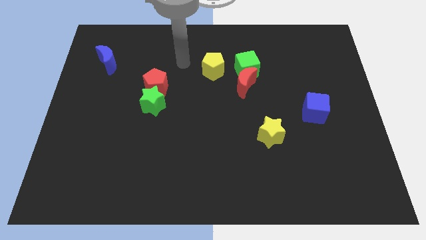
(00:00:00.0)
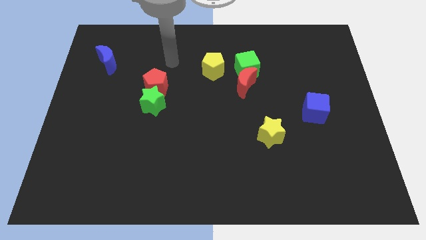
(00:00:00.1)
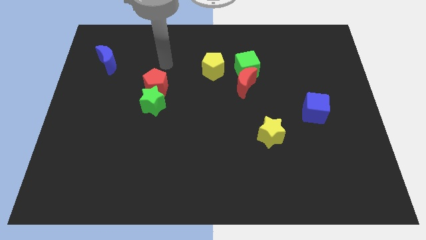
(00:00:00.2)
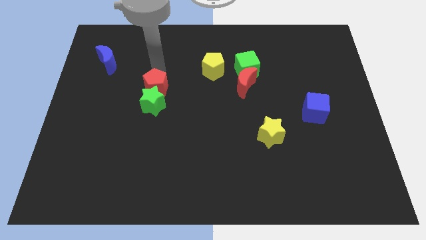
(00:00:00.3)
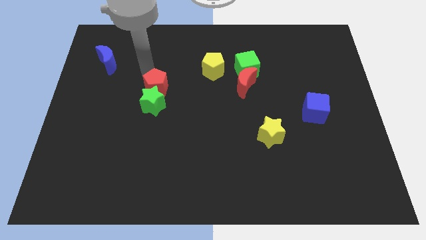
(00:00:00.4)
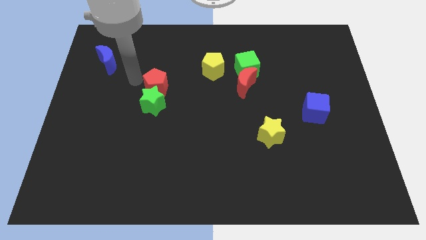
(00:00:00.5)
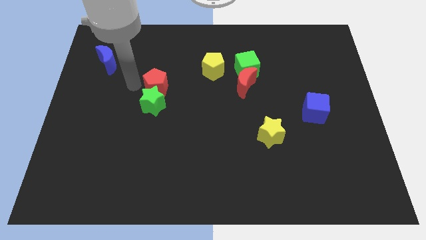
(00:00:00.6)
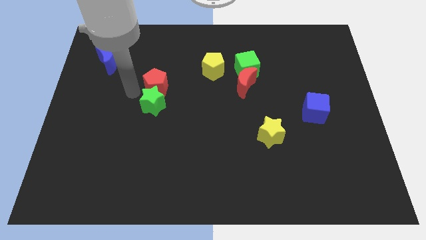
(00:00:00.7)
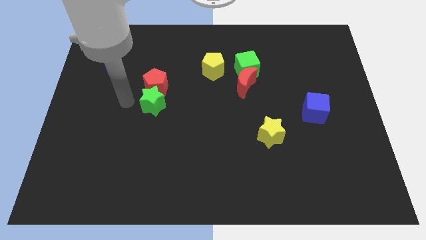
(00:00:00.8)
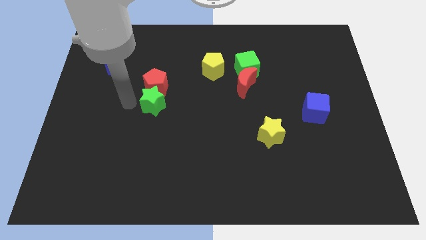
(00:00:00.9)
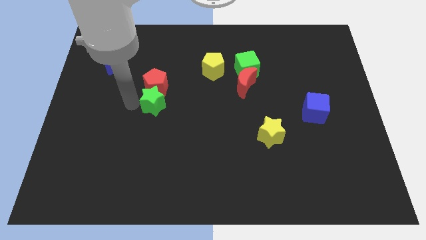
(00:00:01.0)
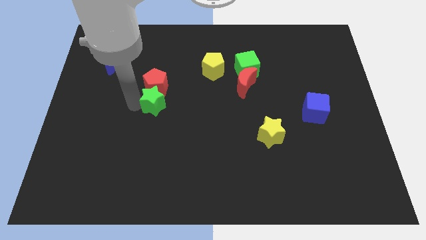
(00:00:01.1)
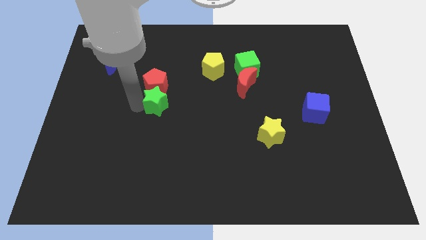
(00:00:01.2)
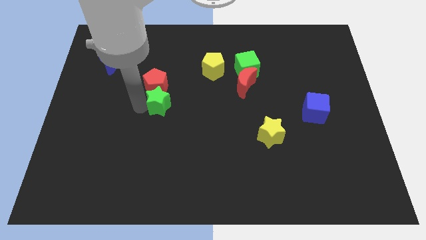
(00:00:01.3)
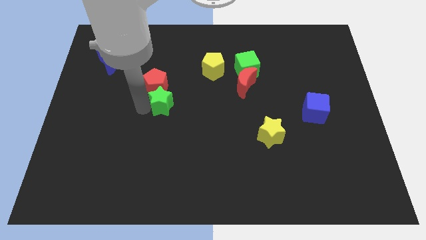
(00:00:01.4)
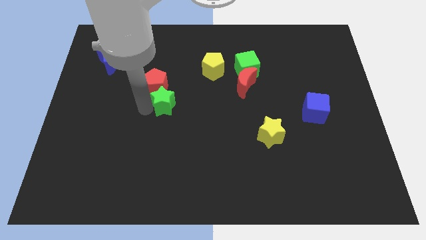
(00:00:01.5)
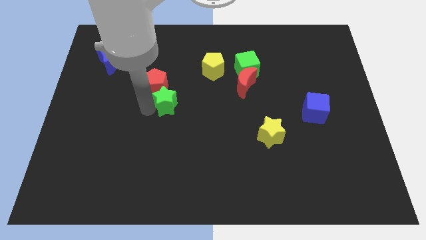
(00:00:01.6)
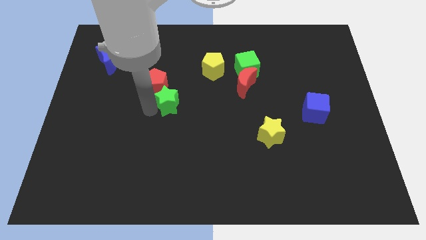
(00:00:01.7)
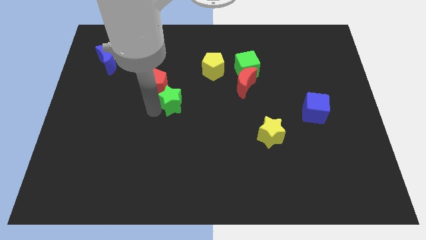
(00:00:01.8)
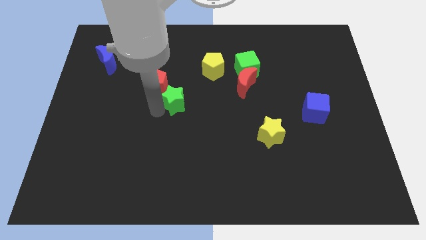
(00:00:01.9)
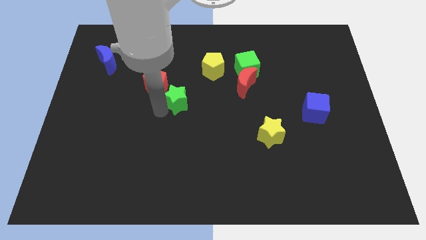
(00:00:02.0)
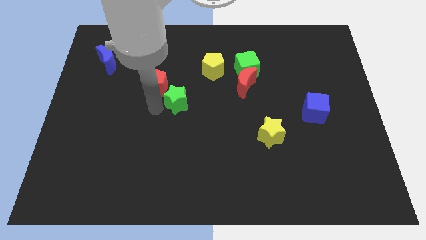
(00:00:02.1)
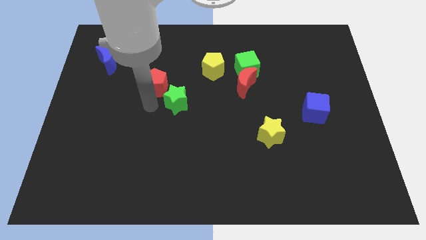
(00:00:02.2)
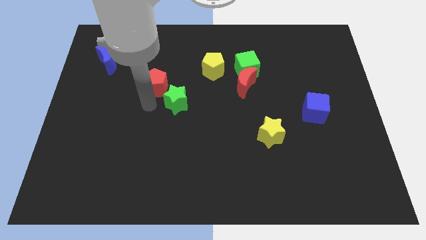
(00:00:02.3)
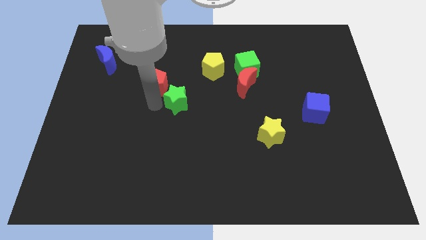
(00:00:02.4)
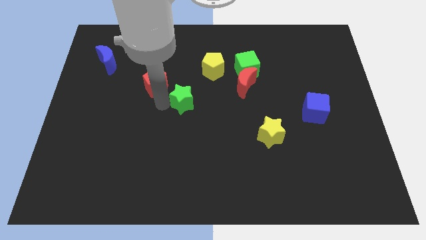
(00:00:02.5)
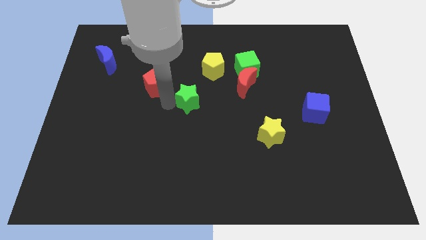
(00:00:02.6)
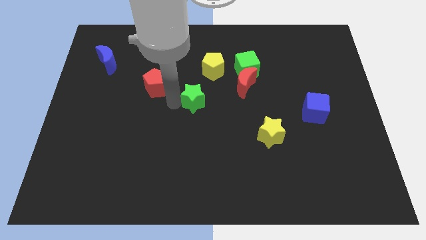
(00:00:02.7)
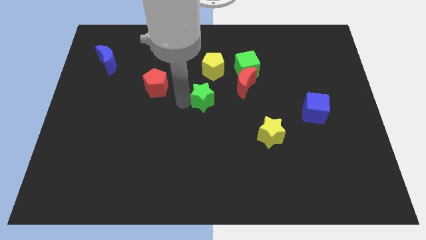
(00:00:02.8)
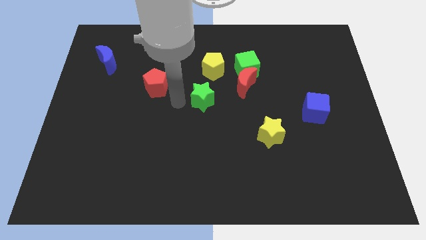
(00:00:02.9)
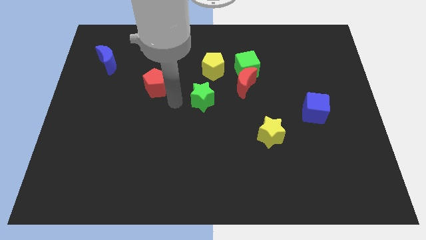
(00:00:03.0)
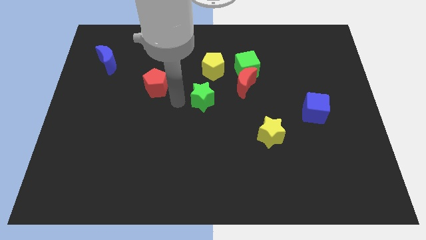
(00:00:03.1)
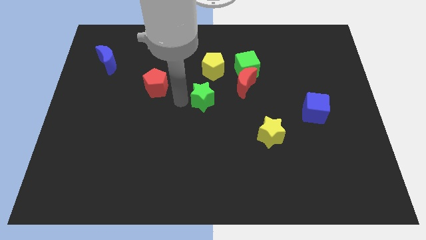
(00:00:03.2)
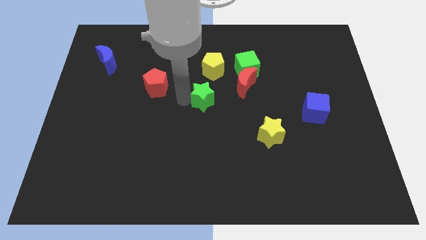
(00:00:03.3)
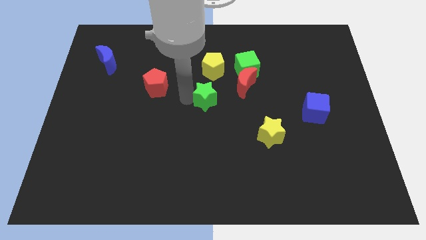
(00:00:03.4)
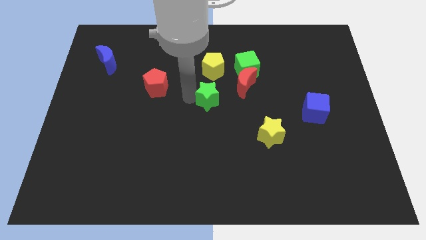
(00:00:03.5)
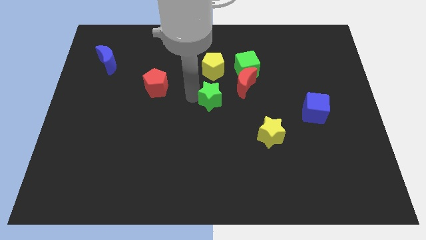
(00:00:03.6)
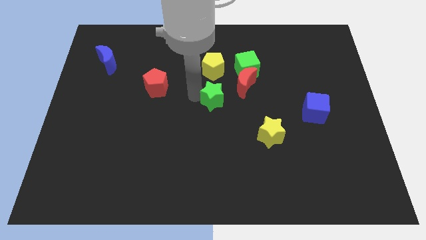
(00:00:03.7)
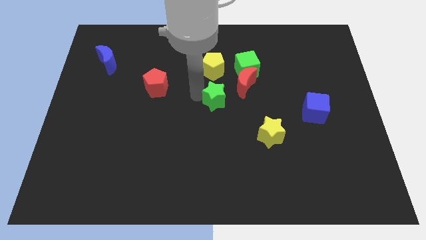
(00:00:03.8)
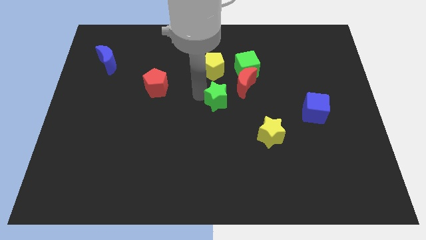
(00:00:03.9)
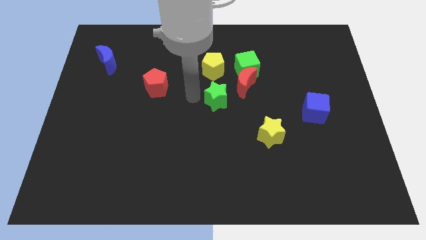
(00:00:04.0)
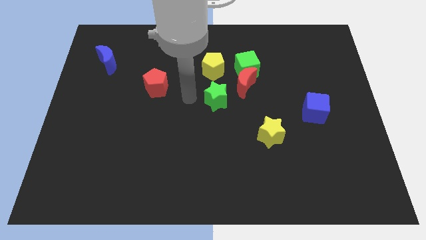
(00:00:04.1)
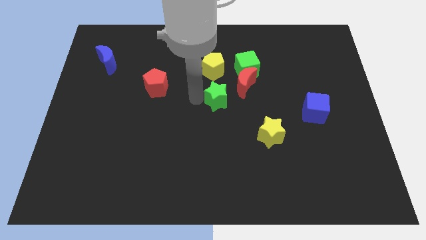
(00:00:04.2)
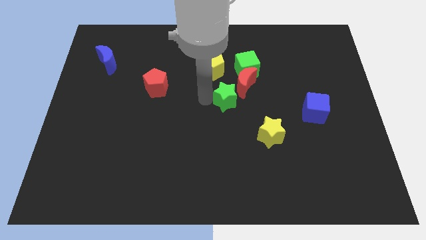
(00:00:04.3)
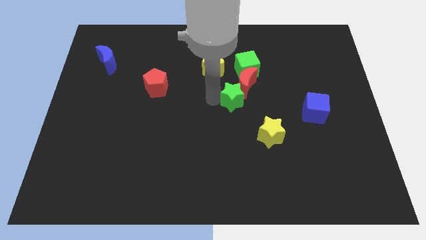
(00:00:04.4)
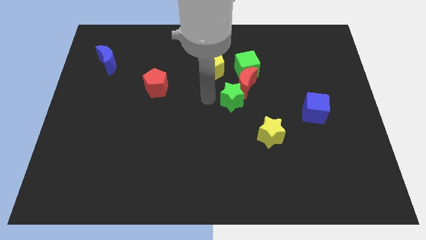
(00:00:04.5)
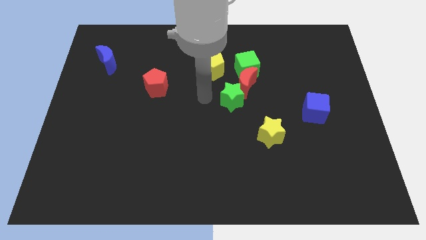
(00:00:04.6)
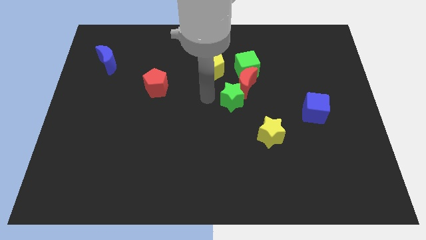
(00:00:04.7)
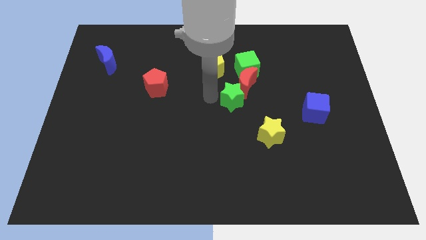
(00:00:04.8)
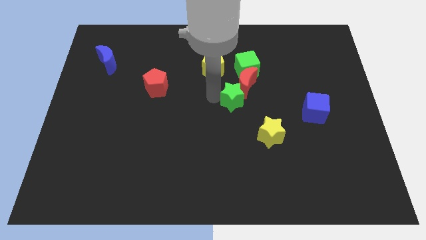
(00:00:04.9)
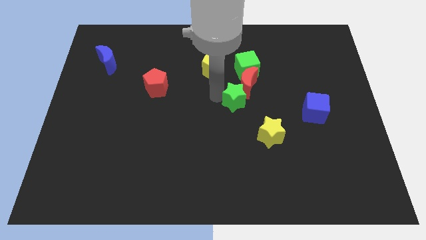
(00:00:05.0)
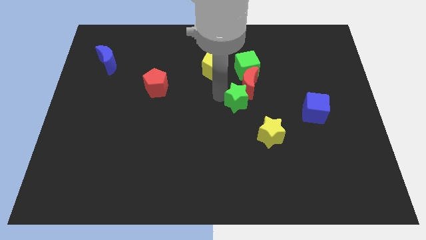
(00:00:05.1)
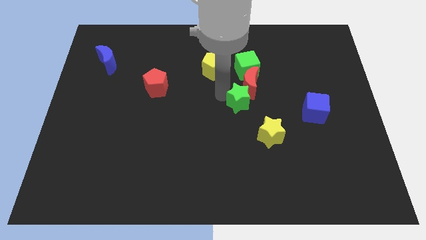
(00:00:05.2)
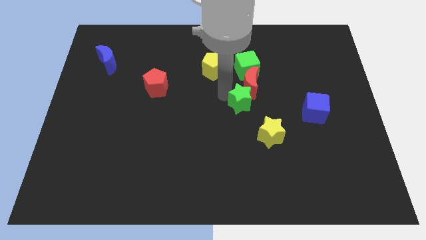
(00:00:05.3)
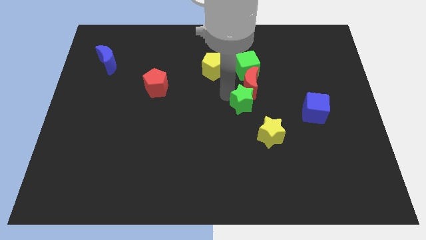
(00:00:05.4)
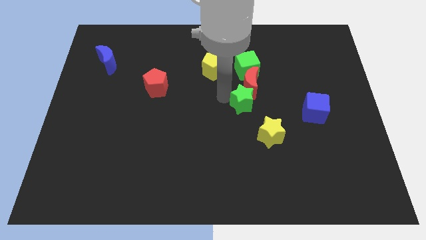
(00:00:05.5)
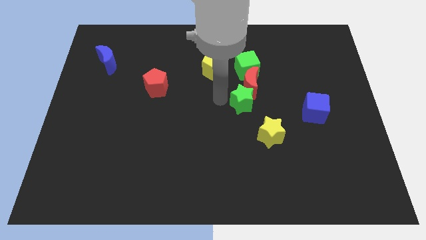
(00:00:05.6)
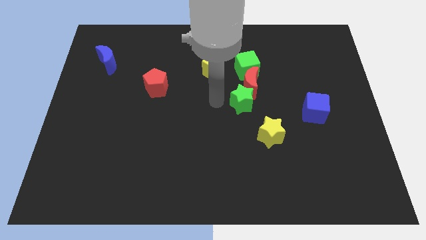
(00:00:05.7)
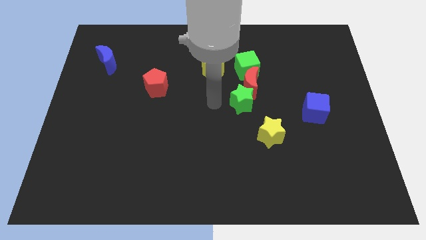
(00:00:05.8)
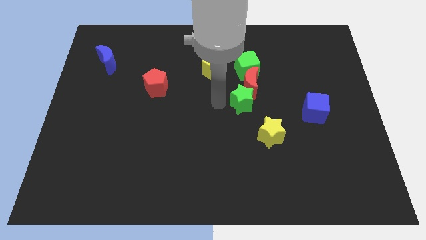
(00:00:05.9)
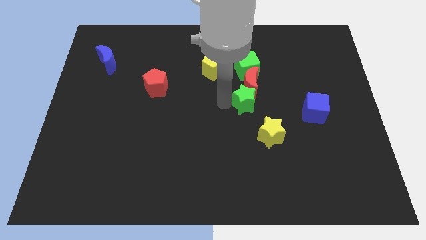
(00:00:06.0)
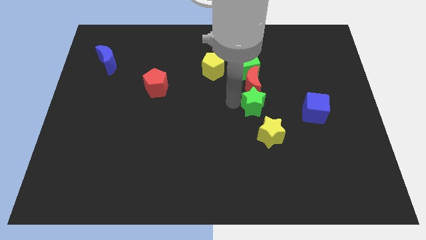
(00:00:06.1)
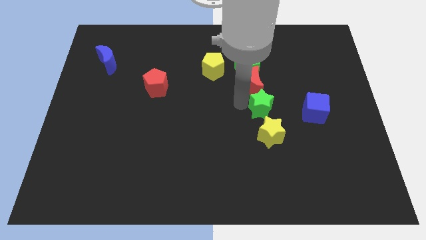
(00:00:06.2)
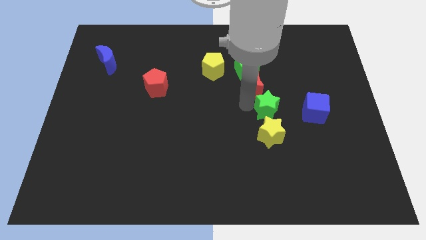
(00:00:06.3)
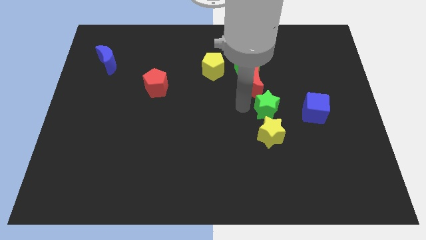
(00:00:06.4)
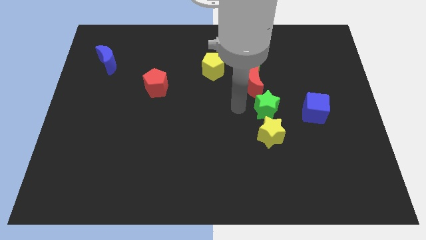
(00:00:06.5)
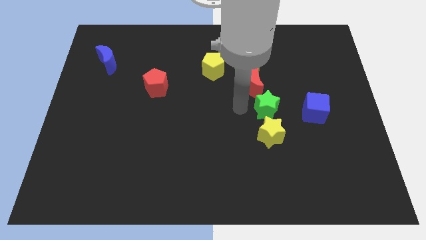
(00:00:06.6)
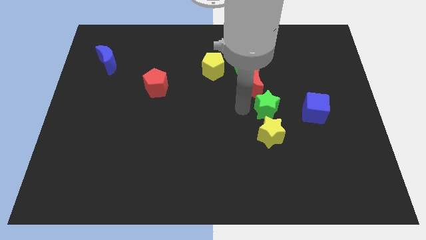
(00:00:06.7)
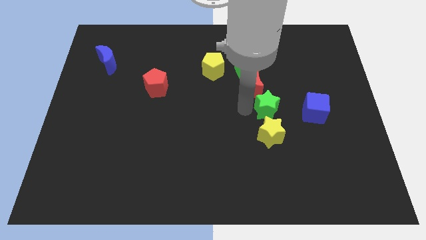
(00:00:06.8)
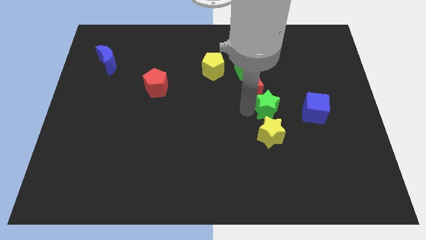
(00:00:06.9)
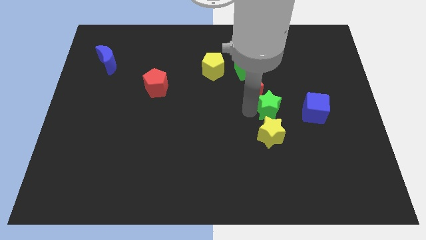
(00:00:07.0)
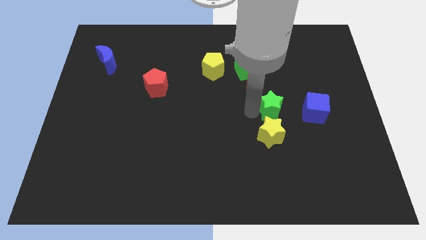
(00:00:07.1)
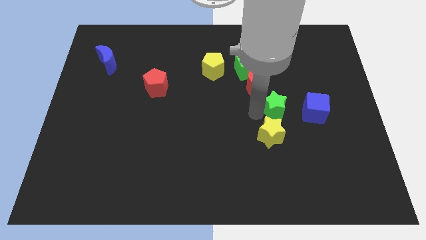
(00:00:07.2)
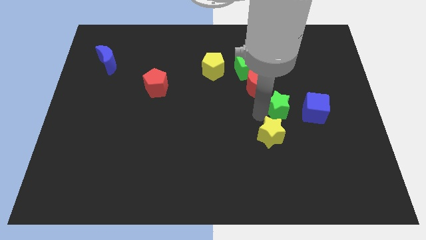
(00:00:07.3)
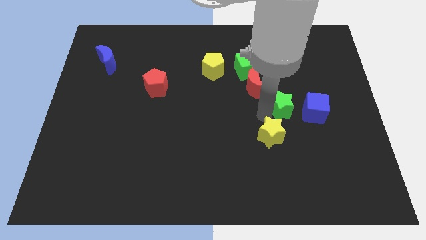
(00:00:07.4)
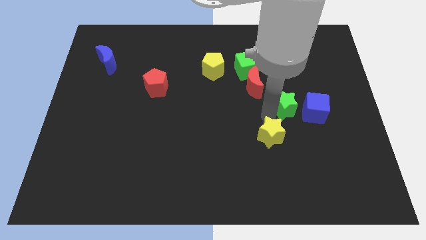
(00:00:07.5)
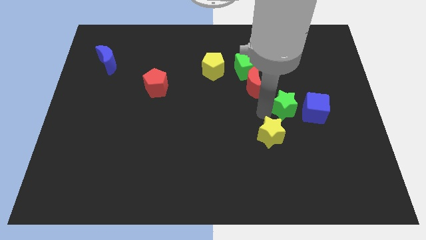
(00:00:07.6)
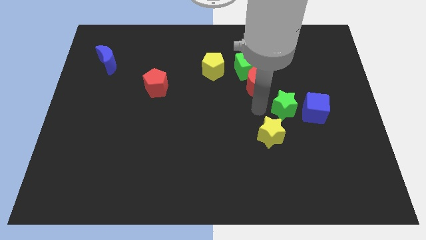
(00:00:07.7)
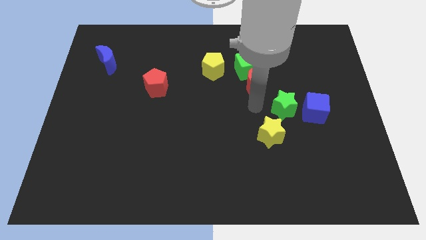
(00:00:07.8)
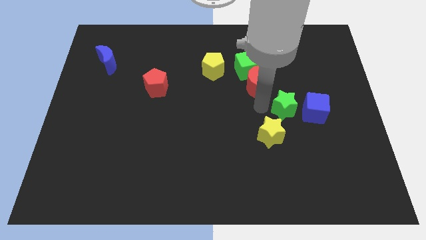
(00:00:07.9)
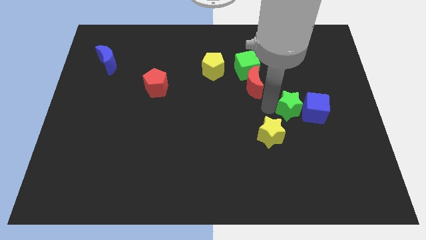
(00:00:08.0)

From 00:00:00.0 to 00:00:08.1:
move the green star towards the blue cube
